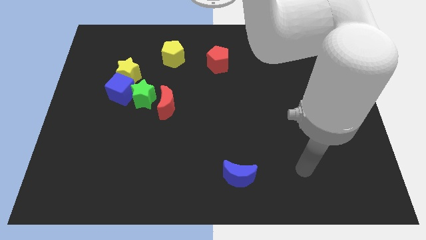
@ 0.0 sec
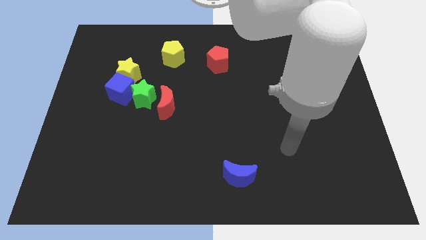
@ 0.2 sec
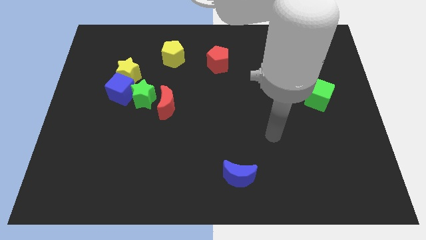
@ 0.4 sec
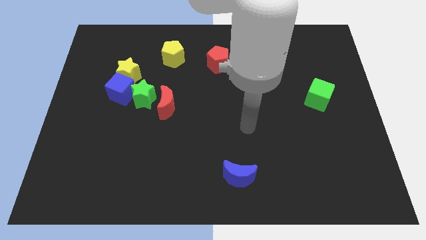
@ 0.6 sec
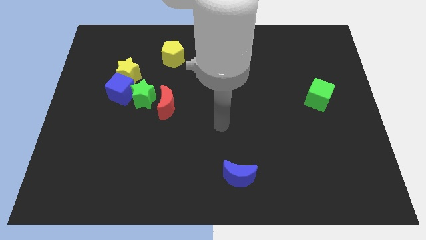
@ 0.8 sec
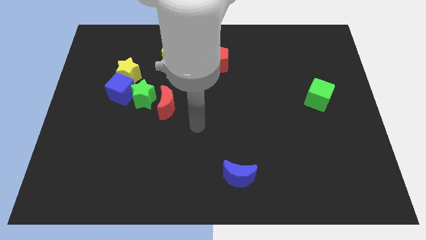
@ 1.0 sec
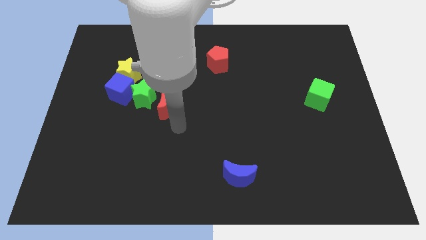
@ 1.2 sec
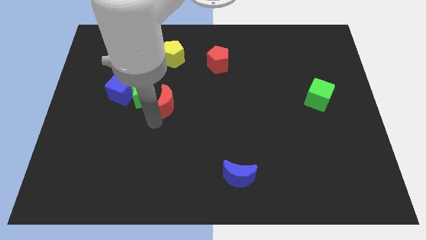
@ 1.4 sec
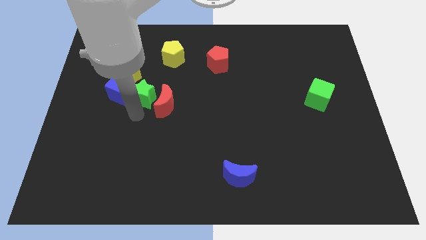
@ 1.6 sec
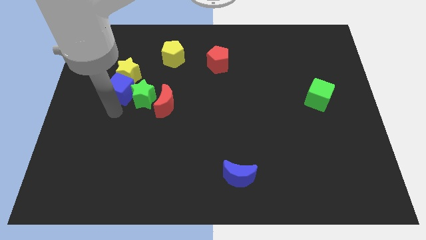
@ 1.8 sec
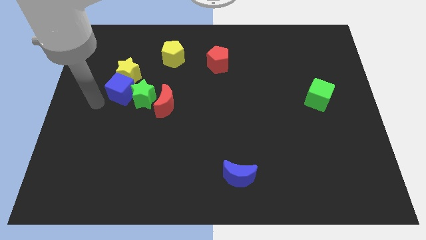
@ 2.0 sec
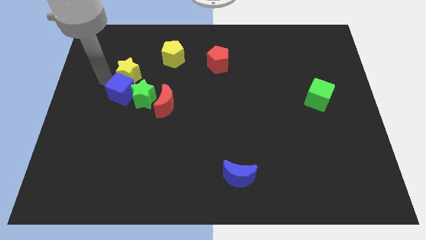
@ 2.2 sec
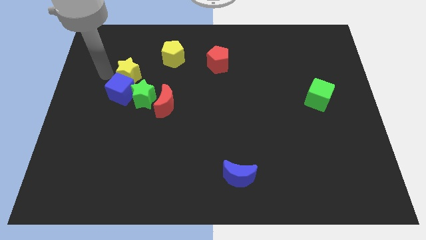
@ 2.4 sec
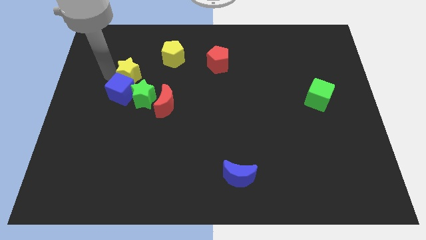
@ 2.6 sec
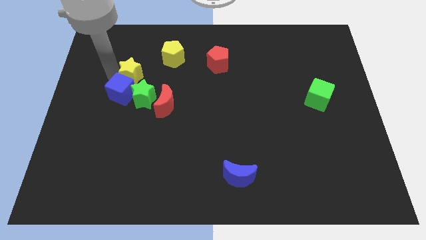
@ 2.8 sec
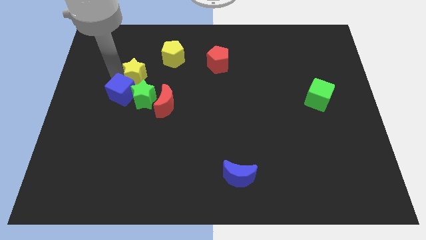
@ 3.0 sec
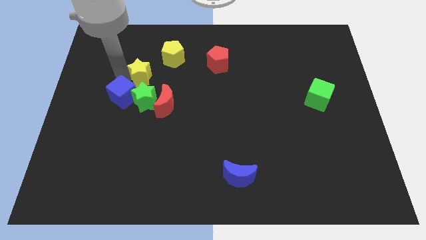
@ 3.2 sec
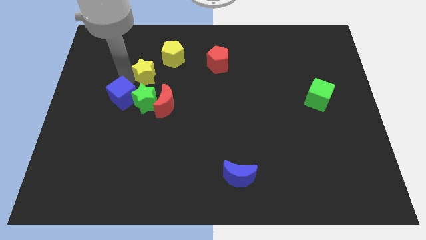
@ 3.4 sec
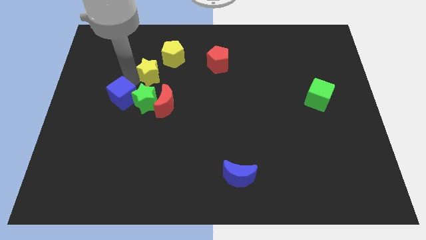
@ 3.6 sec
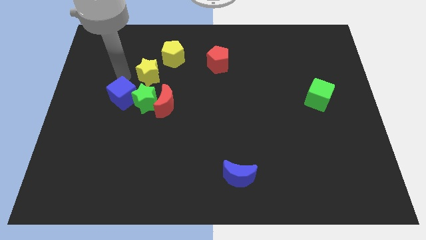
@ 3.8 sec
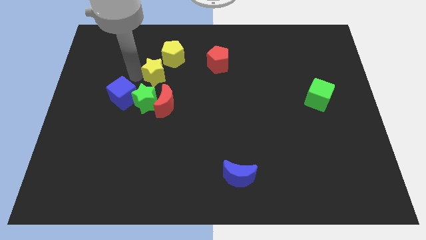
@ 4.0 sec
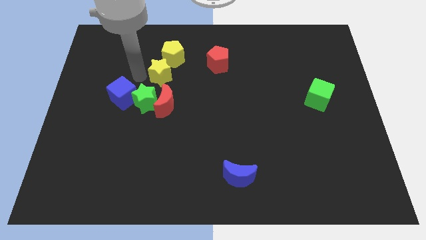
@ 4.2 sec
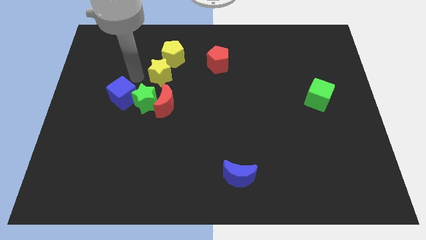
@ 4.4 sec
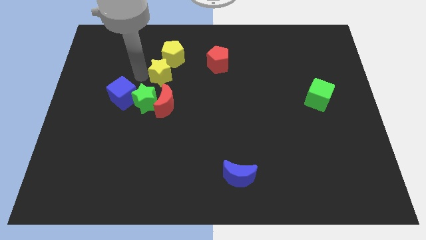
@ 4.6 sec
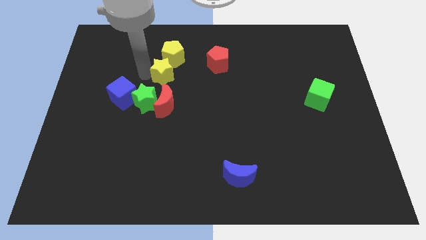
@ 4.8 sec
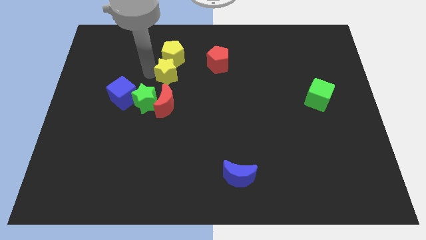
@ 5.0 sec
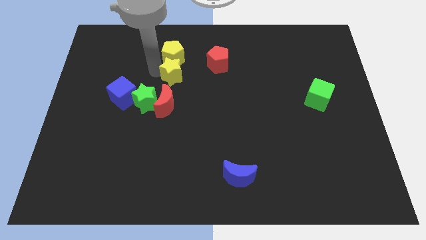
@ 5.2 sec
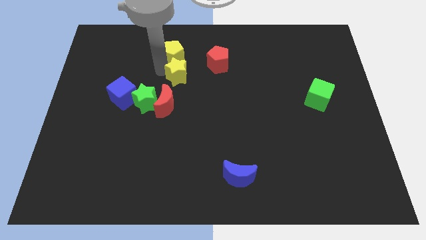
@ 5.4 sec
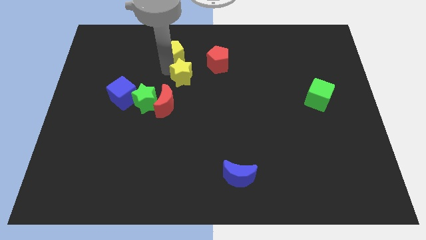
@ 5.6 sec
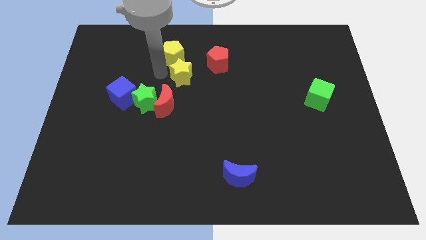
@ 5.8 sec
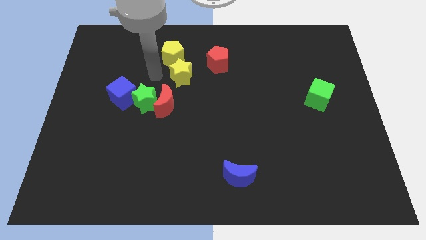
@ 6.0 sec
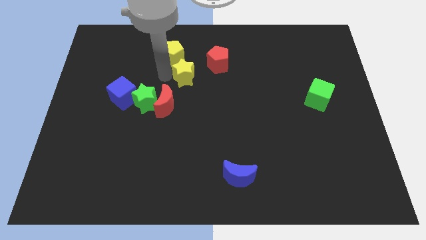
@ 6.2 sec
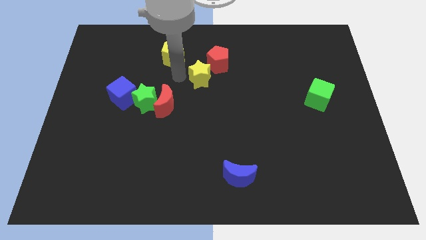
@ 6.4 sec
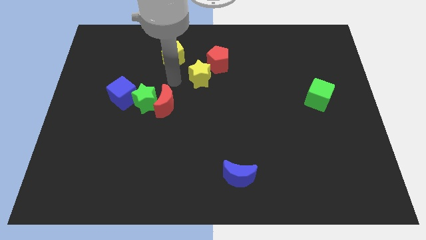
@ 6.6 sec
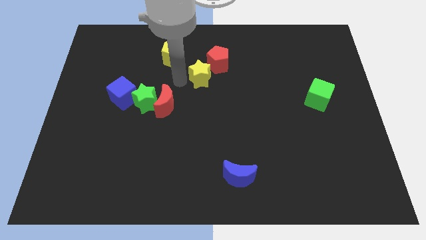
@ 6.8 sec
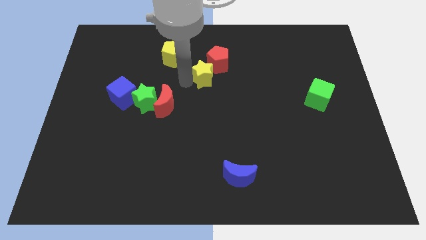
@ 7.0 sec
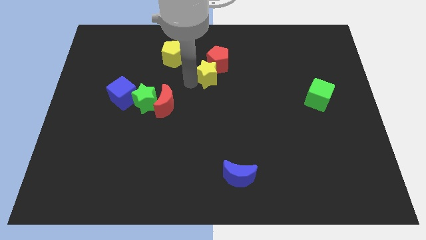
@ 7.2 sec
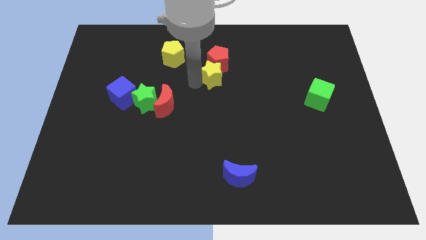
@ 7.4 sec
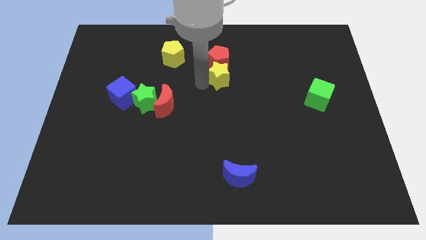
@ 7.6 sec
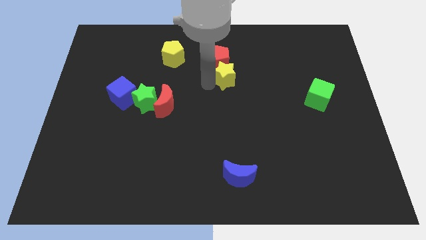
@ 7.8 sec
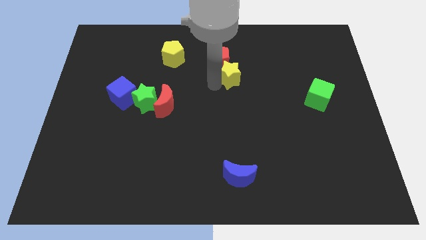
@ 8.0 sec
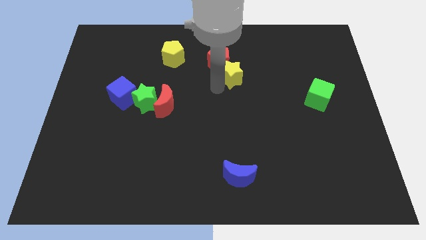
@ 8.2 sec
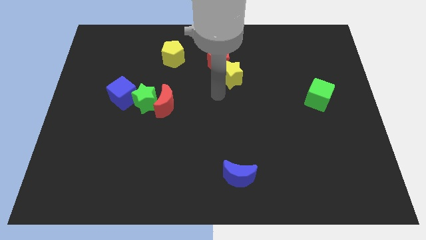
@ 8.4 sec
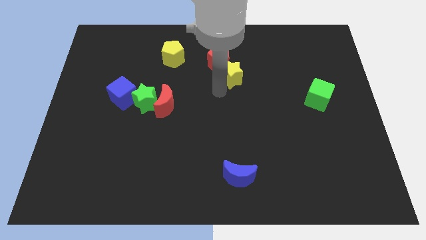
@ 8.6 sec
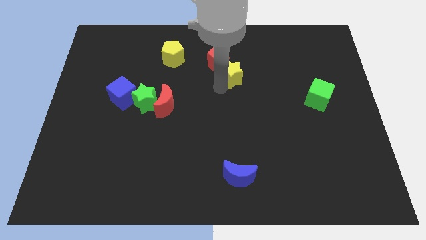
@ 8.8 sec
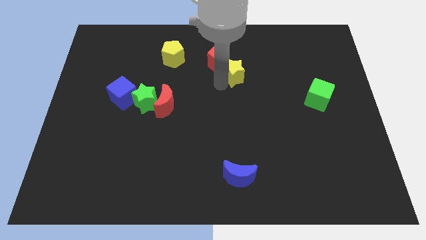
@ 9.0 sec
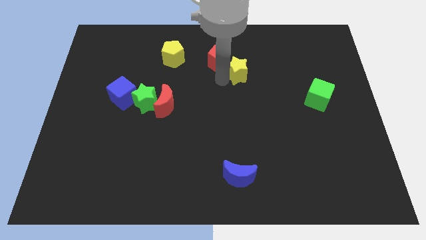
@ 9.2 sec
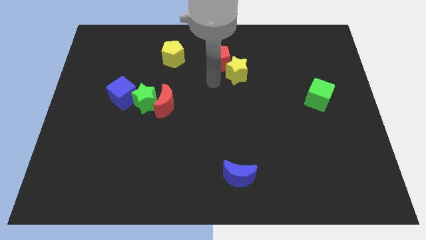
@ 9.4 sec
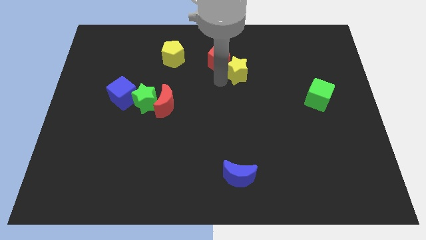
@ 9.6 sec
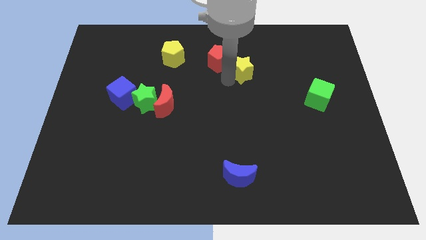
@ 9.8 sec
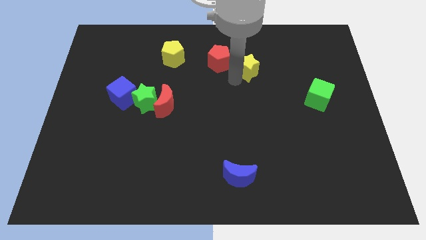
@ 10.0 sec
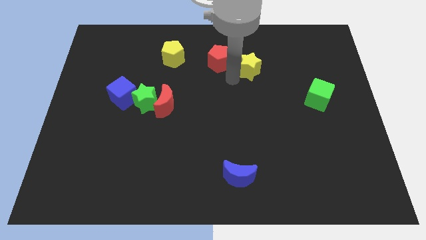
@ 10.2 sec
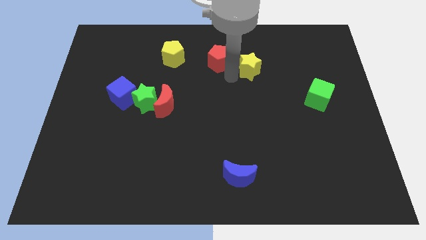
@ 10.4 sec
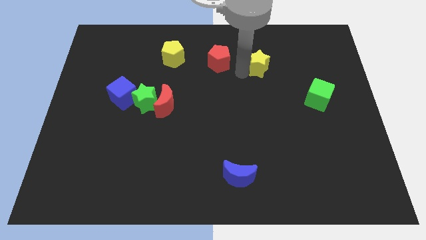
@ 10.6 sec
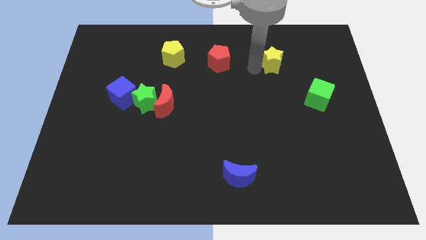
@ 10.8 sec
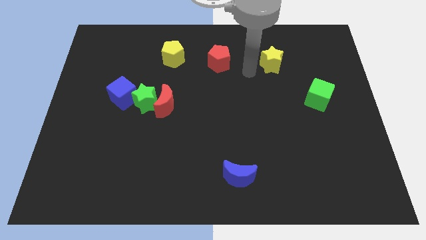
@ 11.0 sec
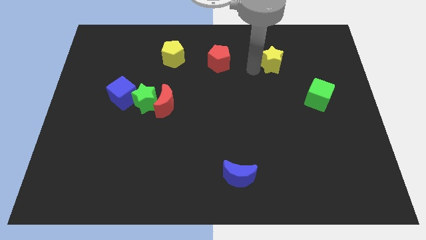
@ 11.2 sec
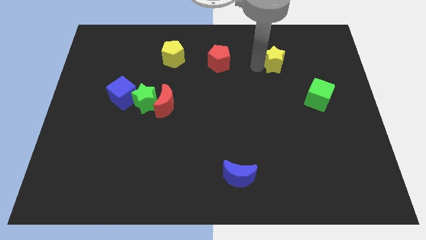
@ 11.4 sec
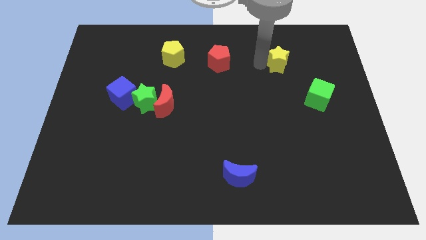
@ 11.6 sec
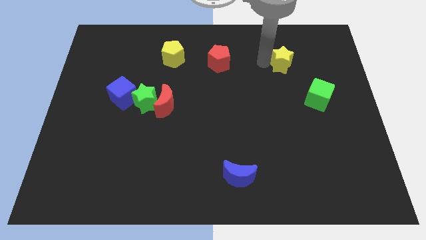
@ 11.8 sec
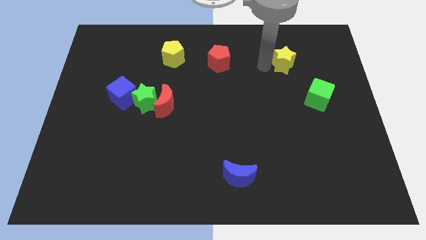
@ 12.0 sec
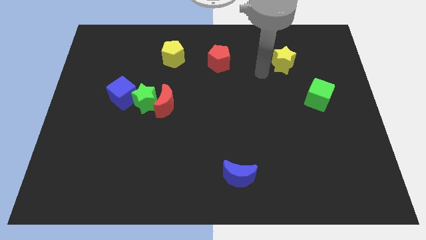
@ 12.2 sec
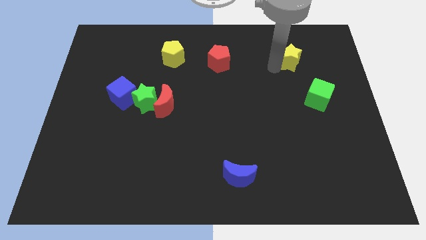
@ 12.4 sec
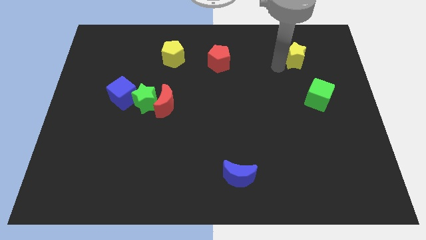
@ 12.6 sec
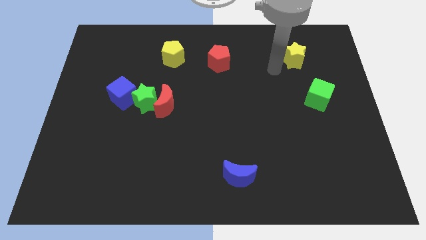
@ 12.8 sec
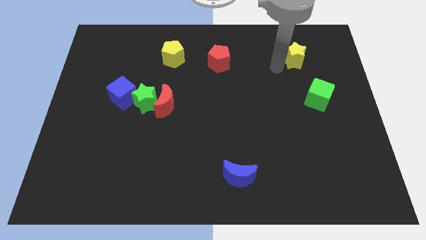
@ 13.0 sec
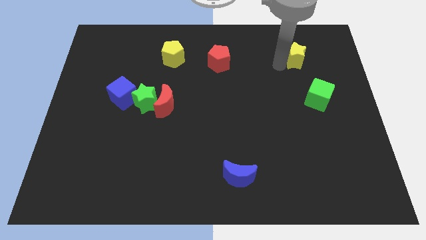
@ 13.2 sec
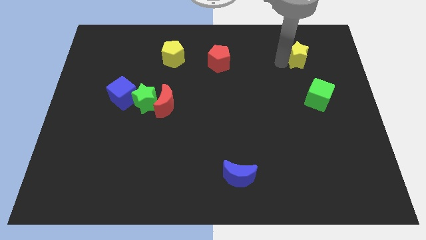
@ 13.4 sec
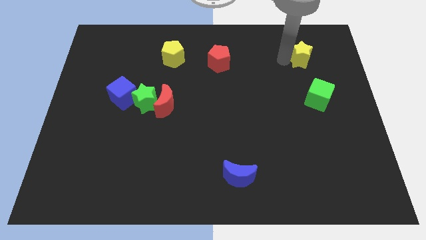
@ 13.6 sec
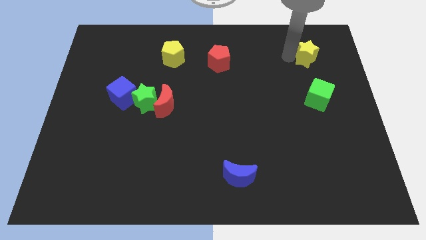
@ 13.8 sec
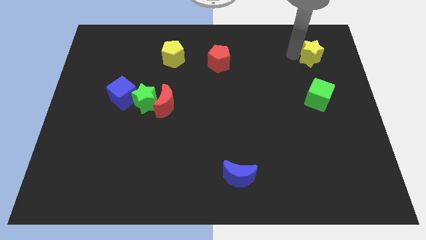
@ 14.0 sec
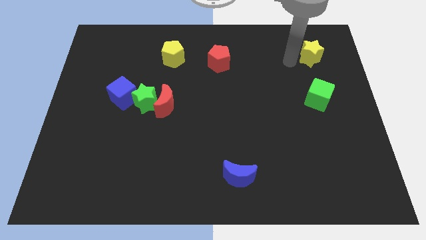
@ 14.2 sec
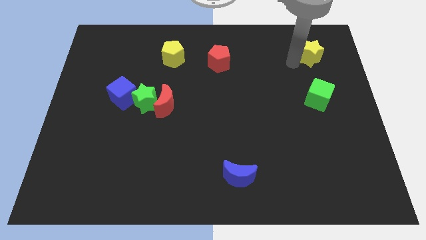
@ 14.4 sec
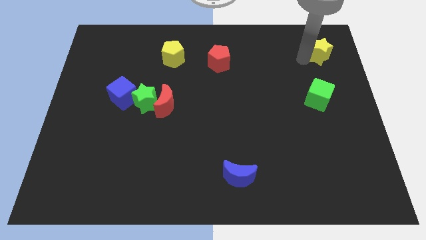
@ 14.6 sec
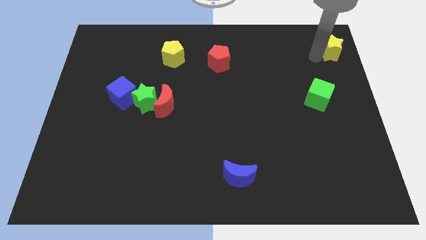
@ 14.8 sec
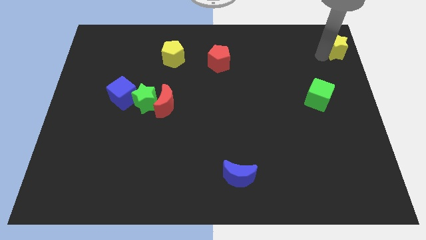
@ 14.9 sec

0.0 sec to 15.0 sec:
move the yellow star to the top right of the board
